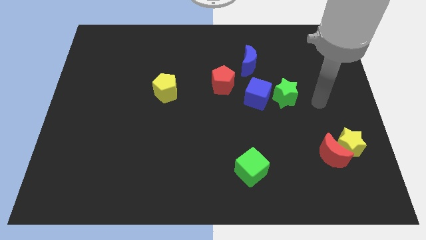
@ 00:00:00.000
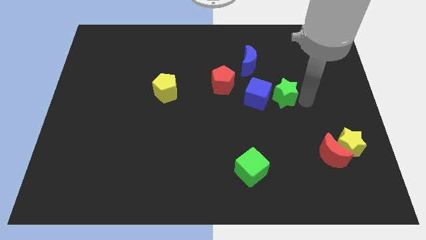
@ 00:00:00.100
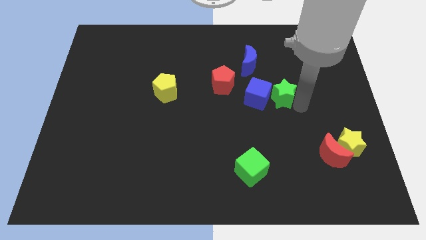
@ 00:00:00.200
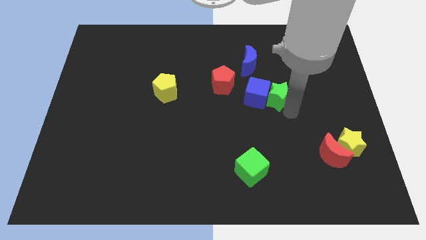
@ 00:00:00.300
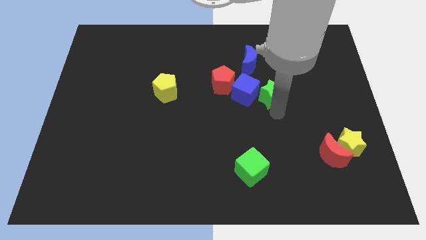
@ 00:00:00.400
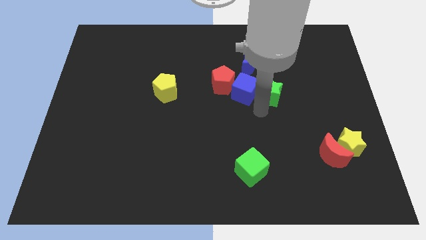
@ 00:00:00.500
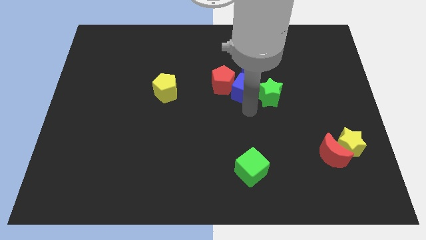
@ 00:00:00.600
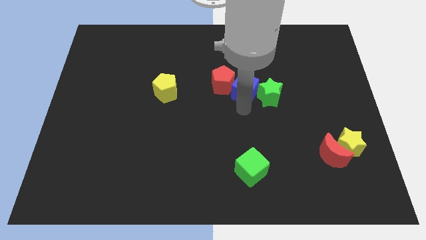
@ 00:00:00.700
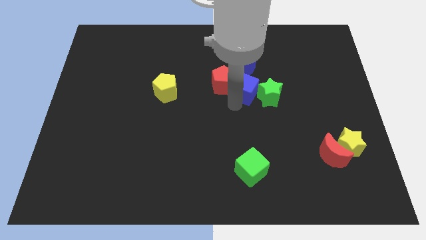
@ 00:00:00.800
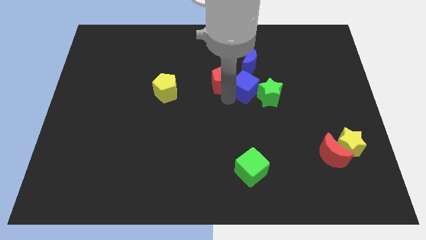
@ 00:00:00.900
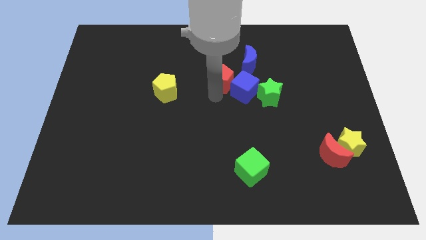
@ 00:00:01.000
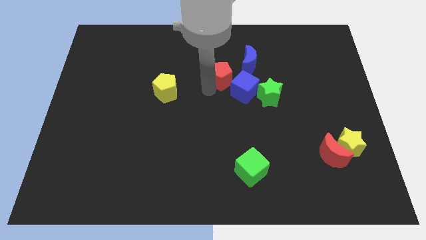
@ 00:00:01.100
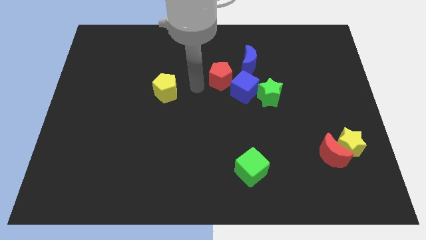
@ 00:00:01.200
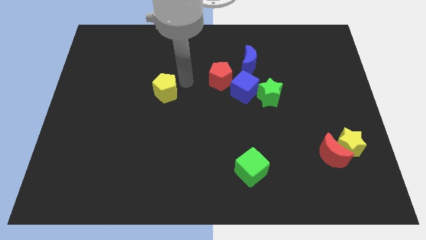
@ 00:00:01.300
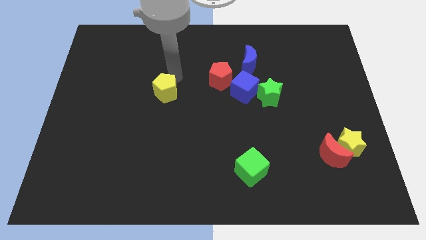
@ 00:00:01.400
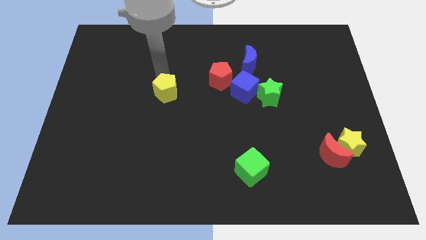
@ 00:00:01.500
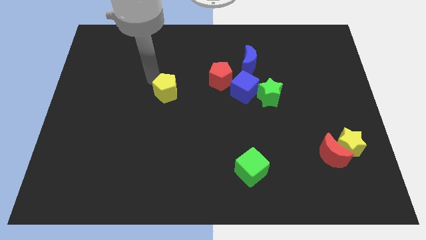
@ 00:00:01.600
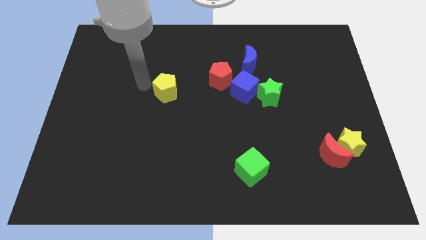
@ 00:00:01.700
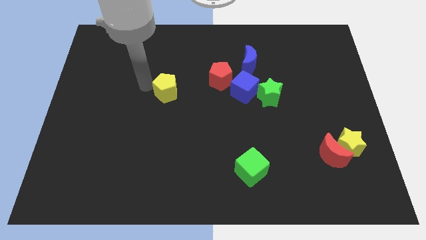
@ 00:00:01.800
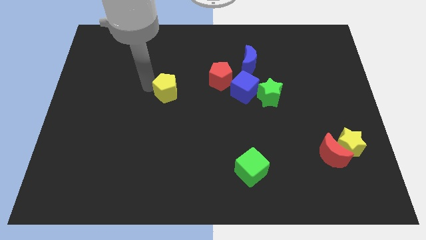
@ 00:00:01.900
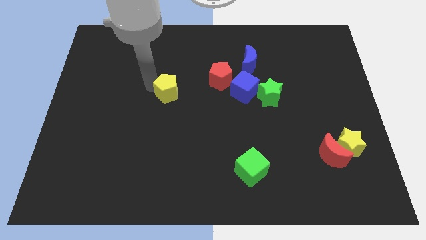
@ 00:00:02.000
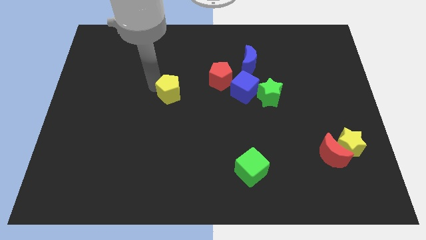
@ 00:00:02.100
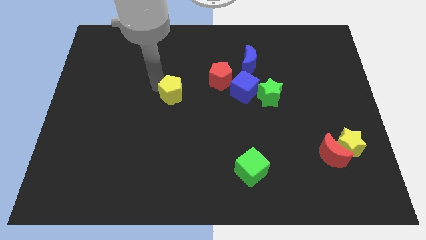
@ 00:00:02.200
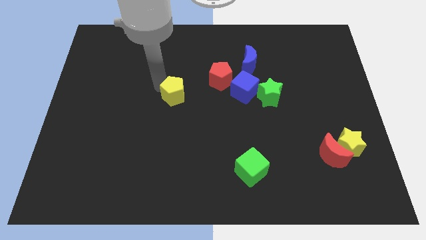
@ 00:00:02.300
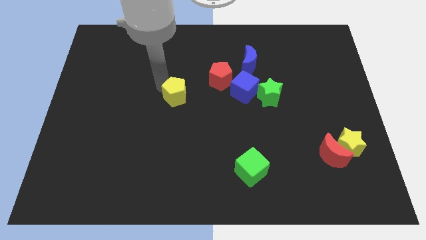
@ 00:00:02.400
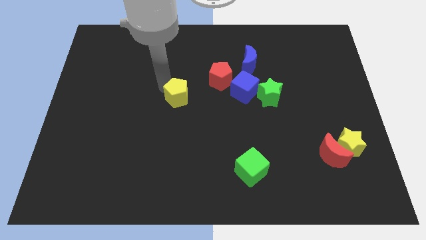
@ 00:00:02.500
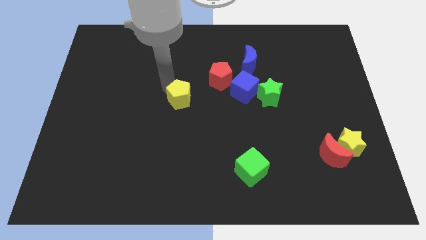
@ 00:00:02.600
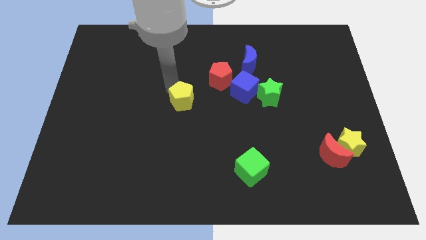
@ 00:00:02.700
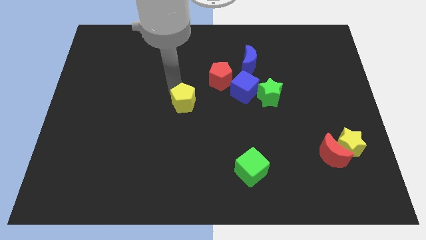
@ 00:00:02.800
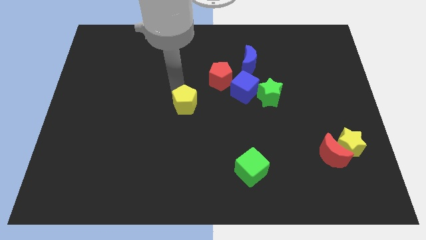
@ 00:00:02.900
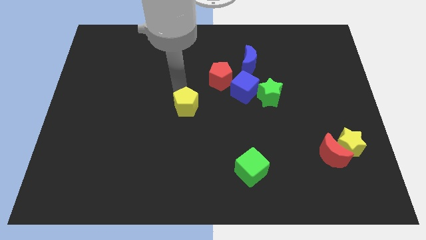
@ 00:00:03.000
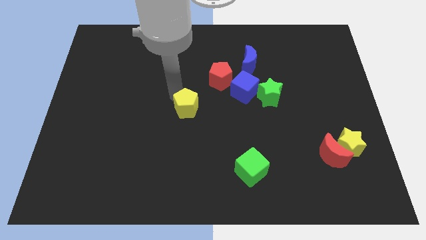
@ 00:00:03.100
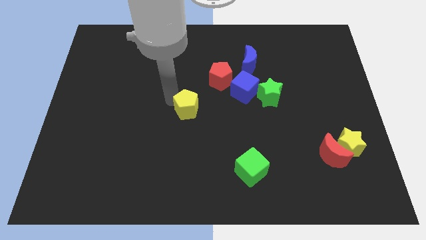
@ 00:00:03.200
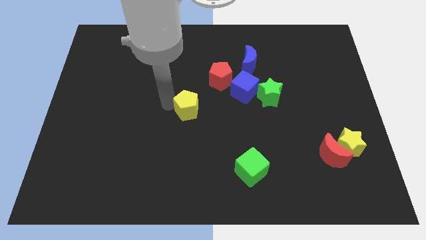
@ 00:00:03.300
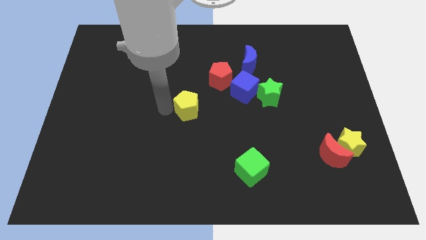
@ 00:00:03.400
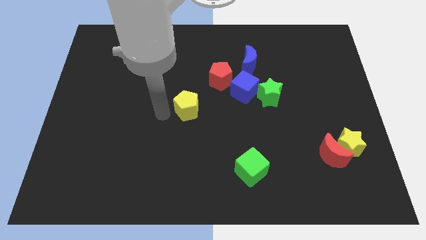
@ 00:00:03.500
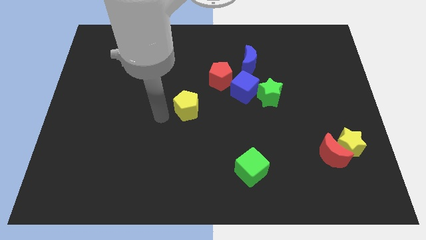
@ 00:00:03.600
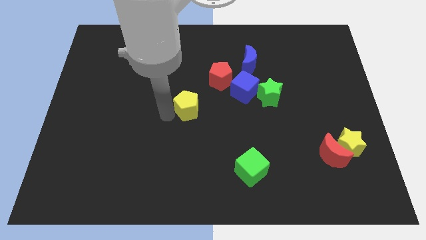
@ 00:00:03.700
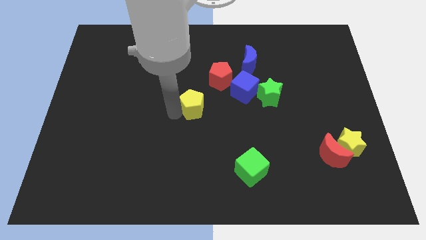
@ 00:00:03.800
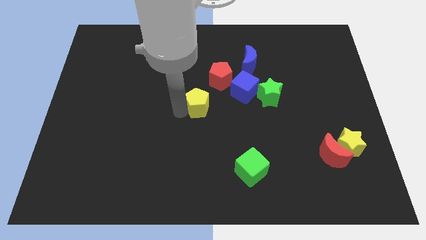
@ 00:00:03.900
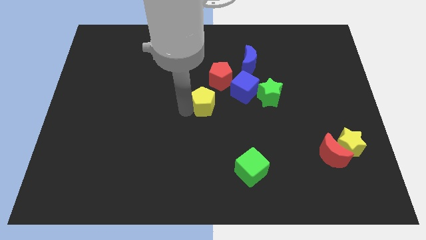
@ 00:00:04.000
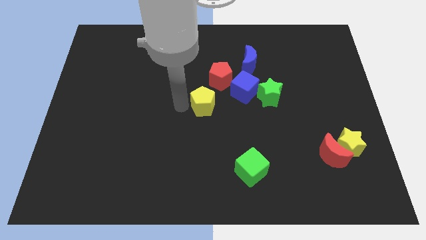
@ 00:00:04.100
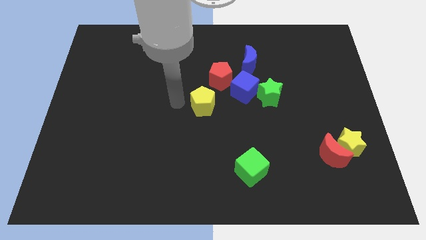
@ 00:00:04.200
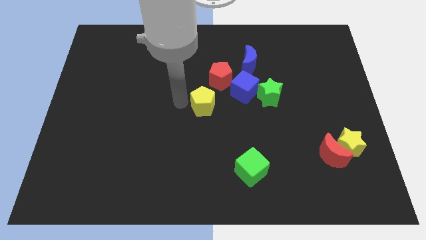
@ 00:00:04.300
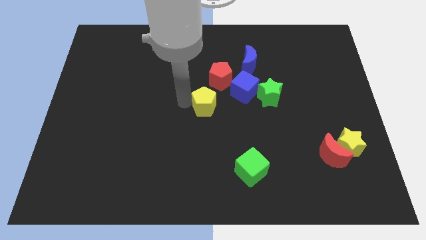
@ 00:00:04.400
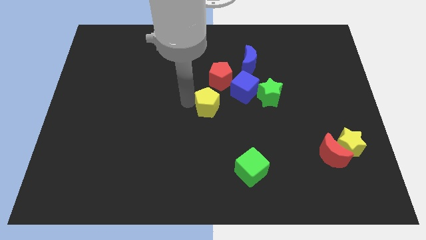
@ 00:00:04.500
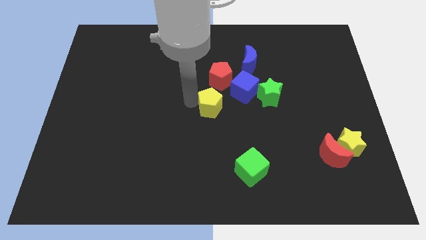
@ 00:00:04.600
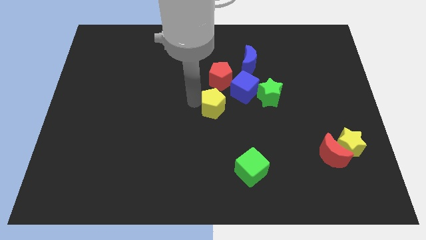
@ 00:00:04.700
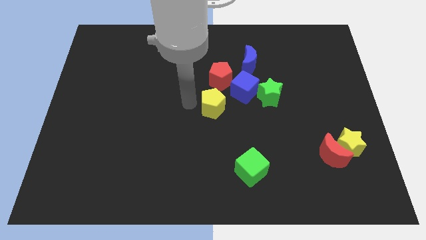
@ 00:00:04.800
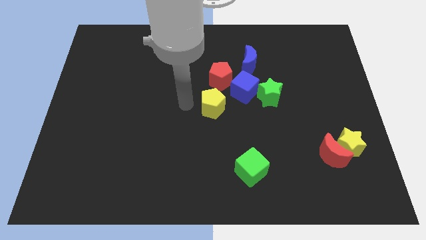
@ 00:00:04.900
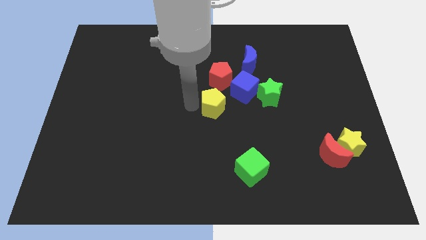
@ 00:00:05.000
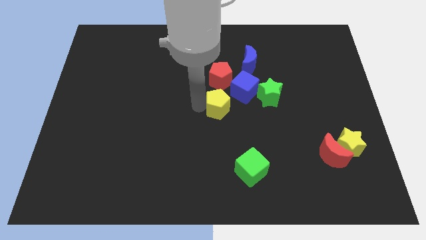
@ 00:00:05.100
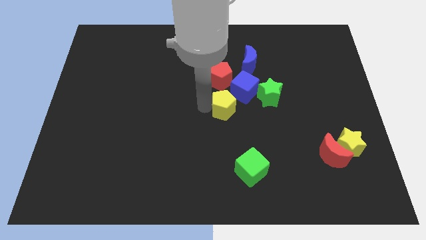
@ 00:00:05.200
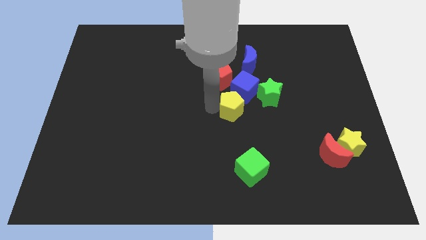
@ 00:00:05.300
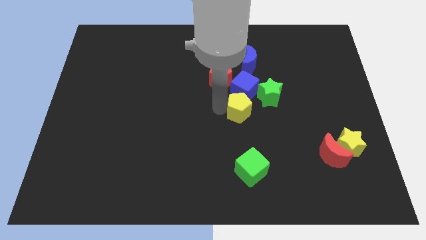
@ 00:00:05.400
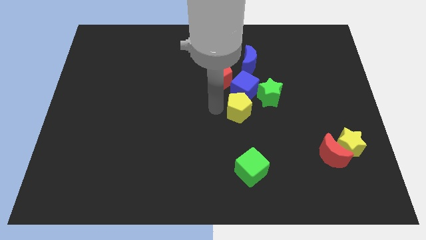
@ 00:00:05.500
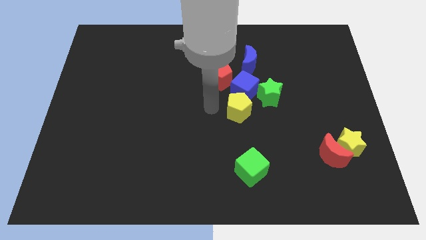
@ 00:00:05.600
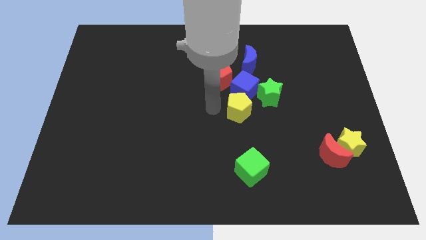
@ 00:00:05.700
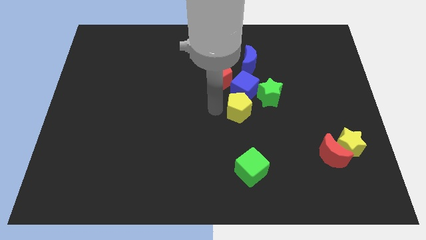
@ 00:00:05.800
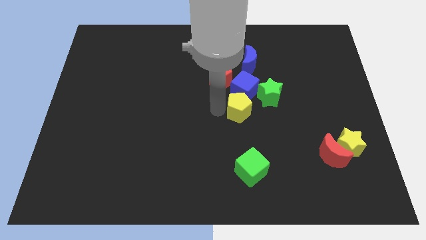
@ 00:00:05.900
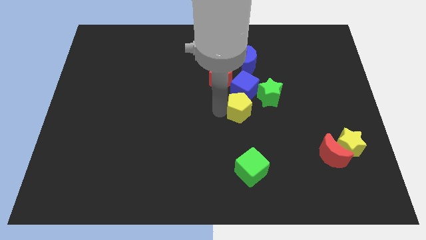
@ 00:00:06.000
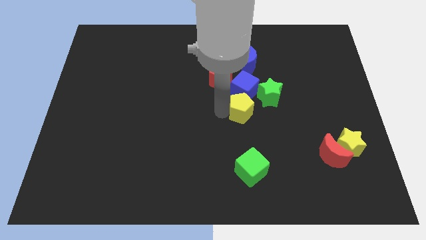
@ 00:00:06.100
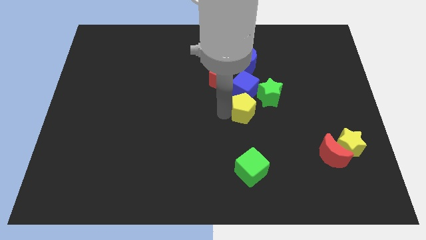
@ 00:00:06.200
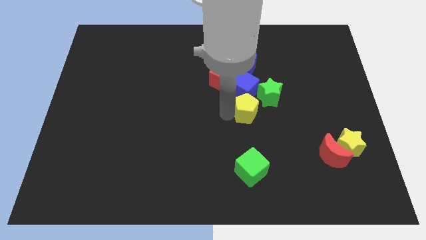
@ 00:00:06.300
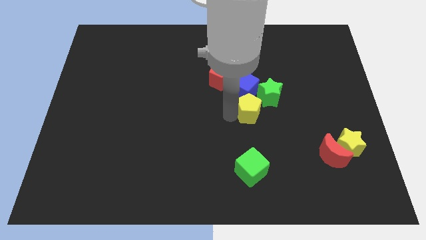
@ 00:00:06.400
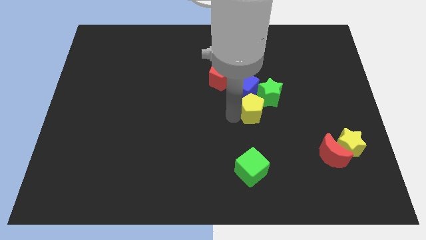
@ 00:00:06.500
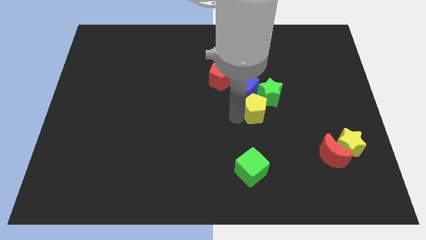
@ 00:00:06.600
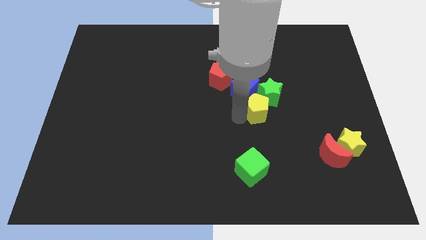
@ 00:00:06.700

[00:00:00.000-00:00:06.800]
move the yellow pentagon towards the green star

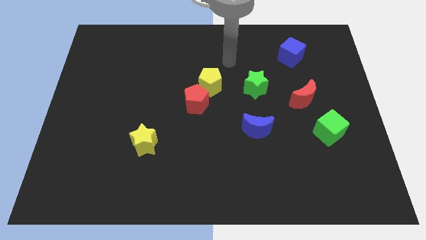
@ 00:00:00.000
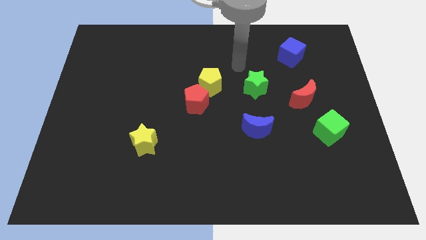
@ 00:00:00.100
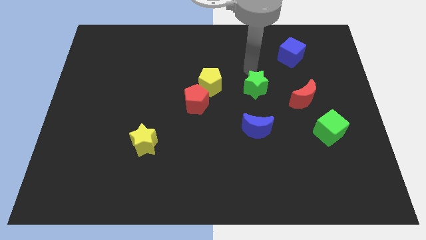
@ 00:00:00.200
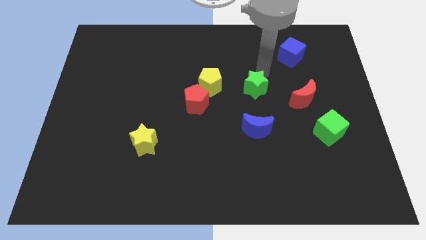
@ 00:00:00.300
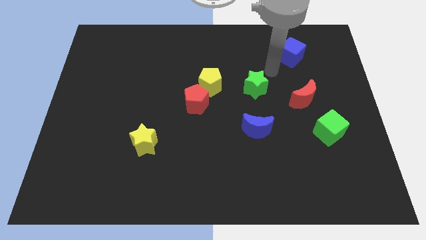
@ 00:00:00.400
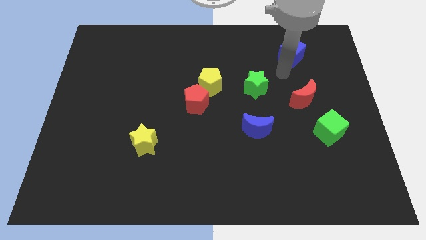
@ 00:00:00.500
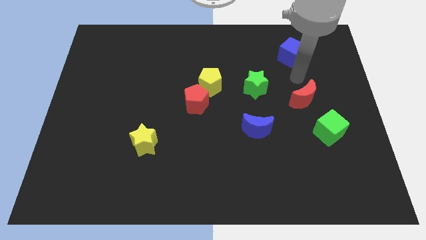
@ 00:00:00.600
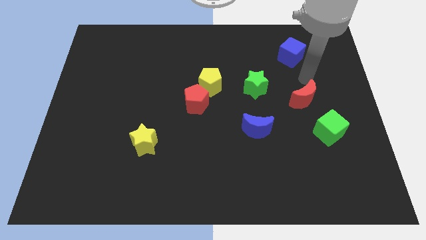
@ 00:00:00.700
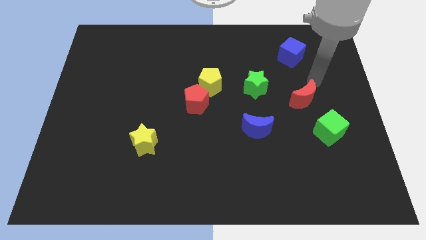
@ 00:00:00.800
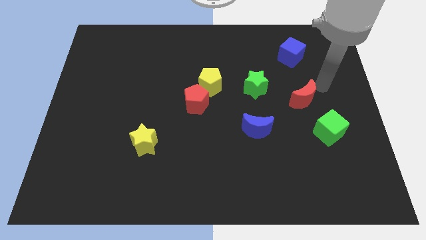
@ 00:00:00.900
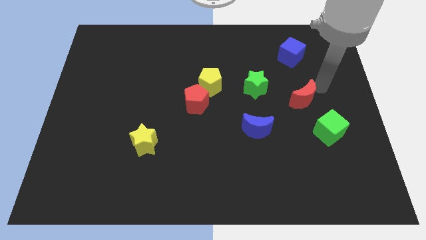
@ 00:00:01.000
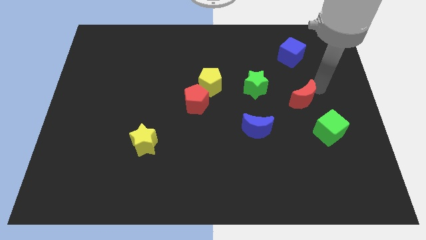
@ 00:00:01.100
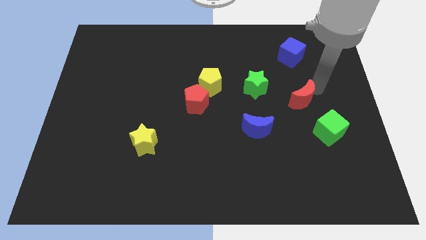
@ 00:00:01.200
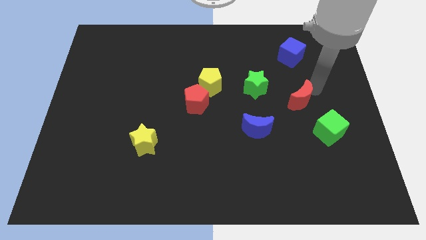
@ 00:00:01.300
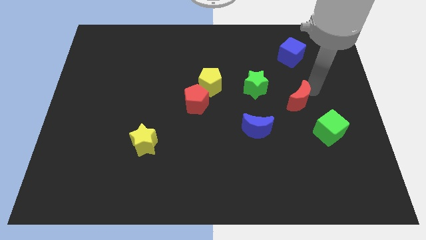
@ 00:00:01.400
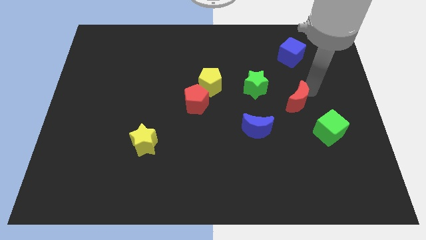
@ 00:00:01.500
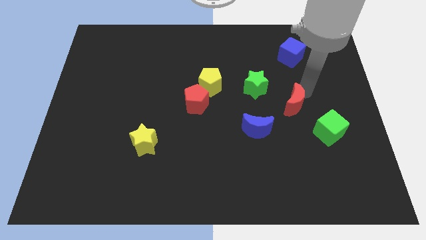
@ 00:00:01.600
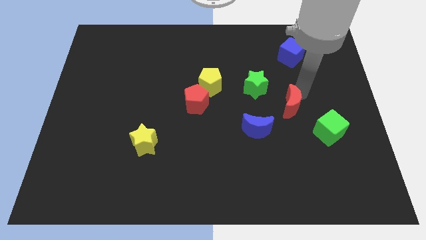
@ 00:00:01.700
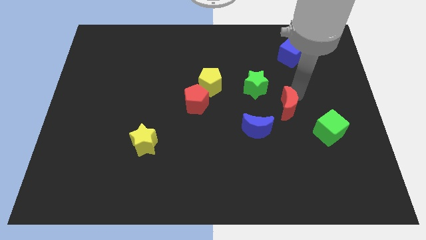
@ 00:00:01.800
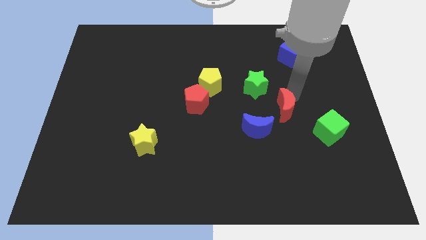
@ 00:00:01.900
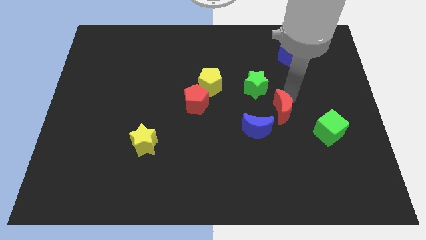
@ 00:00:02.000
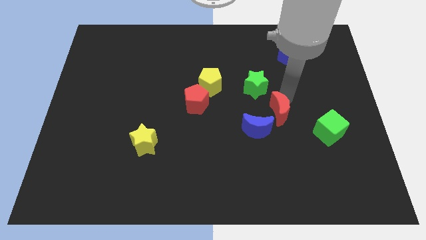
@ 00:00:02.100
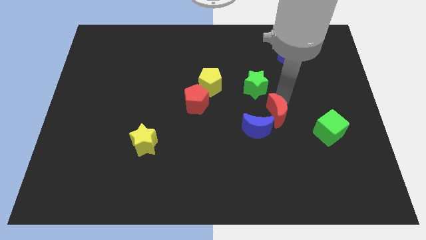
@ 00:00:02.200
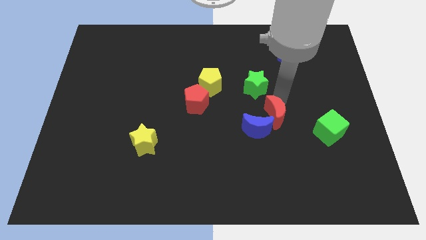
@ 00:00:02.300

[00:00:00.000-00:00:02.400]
push the red moon close to the blue moon
